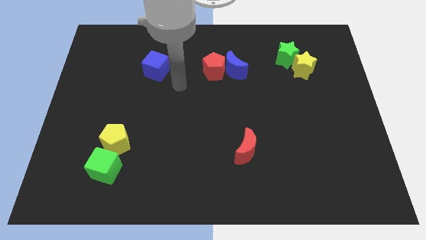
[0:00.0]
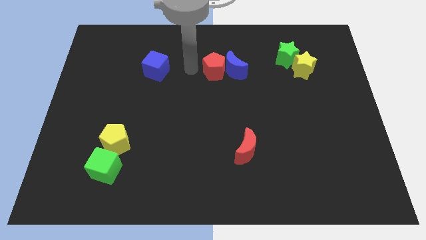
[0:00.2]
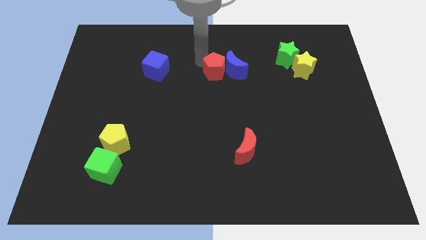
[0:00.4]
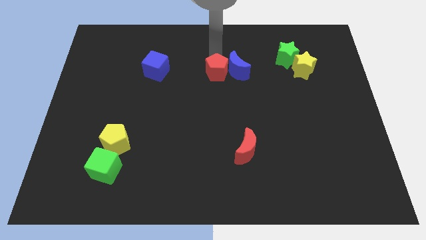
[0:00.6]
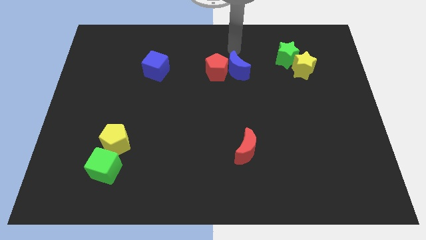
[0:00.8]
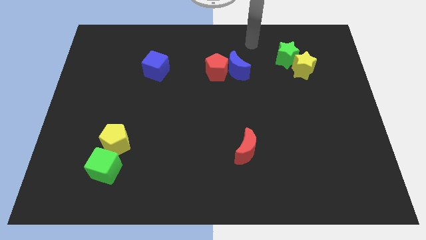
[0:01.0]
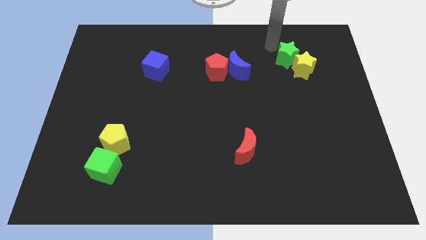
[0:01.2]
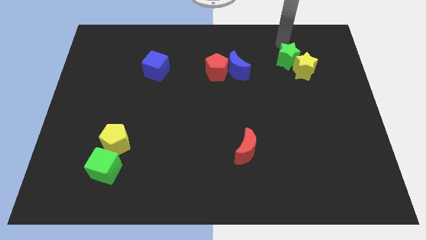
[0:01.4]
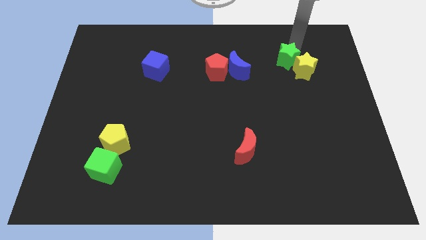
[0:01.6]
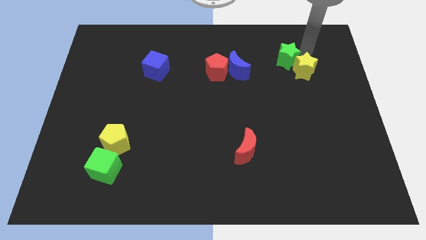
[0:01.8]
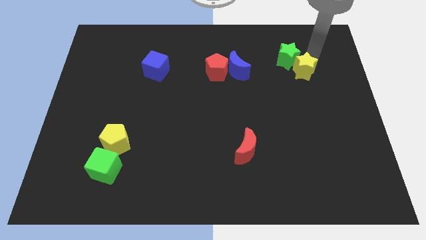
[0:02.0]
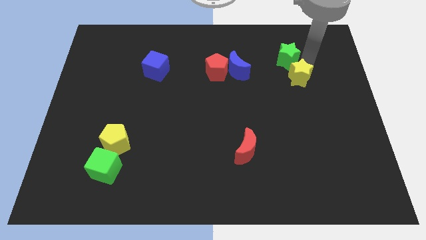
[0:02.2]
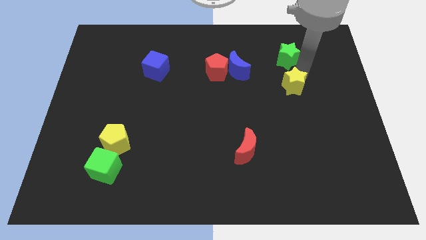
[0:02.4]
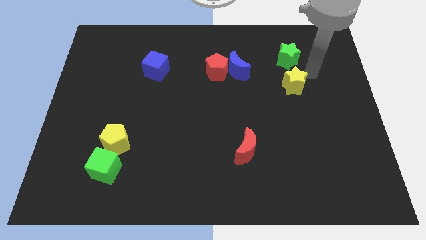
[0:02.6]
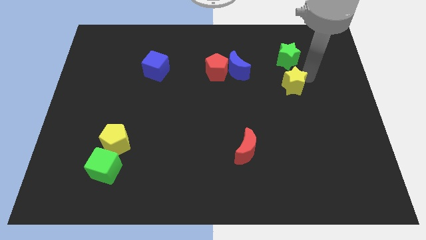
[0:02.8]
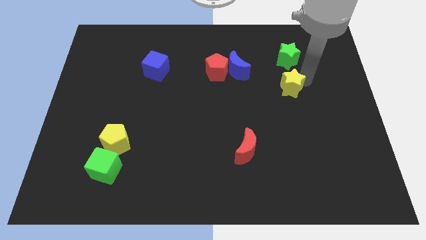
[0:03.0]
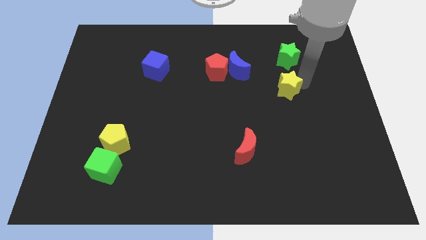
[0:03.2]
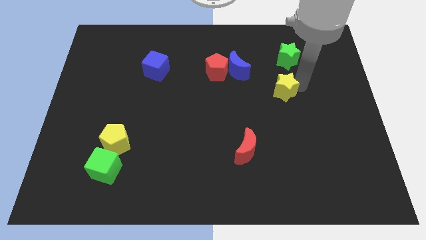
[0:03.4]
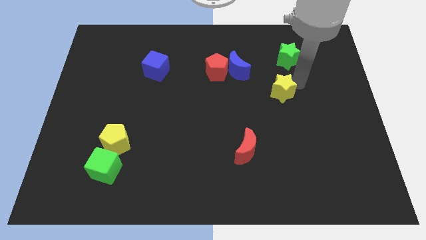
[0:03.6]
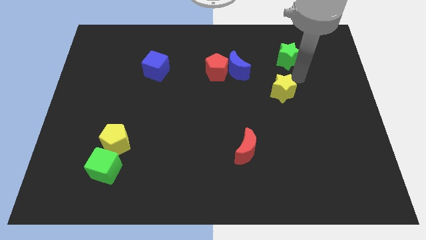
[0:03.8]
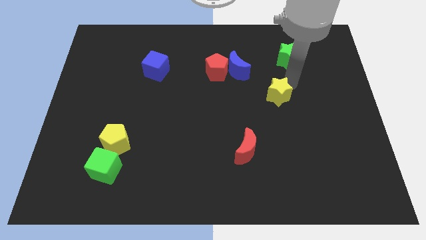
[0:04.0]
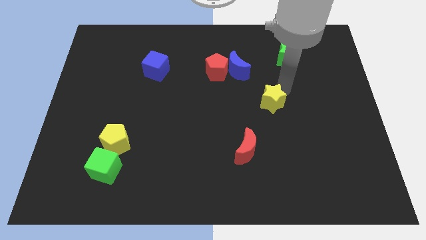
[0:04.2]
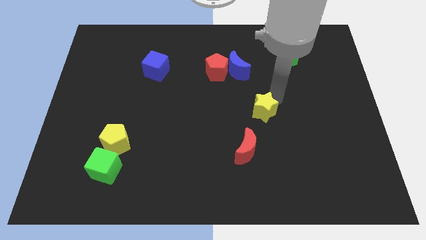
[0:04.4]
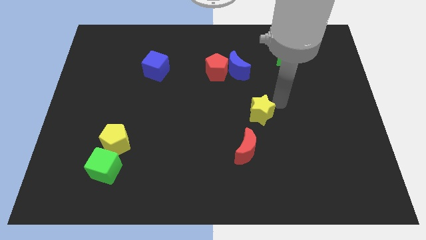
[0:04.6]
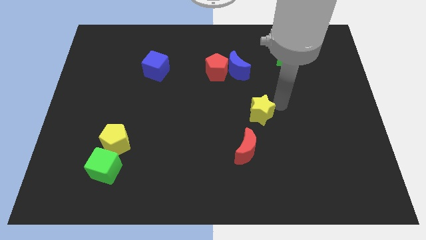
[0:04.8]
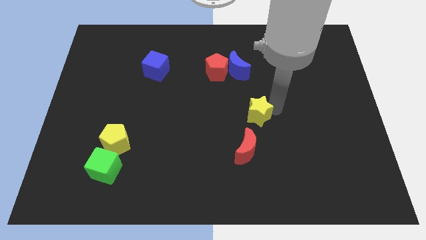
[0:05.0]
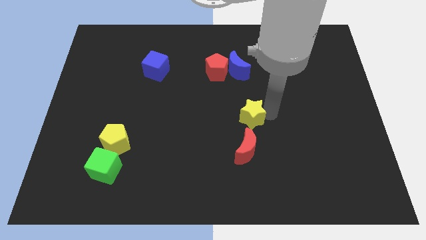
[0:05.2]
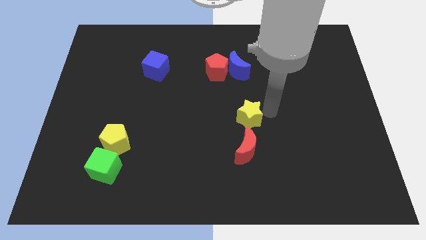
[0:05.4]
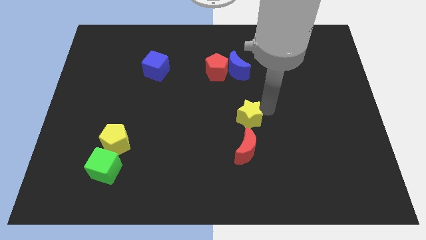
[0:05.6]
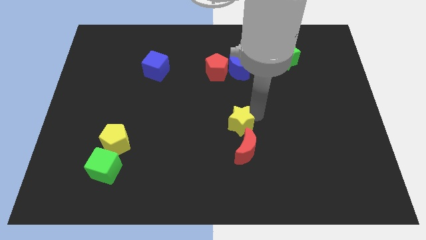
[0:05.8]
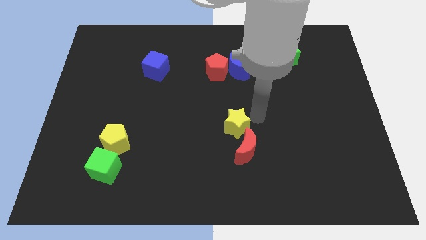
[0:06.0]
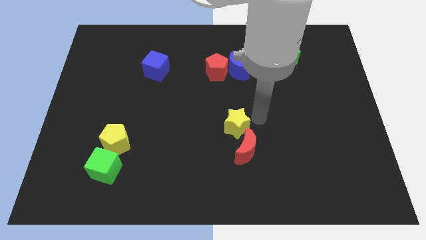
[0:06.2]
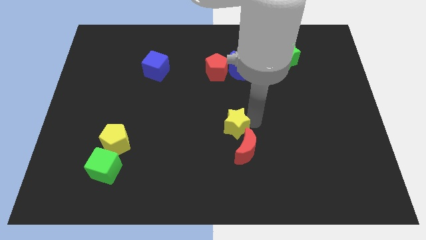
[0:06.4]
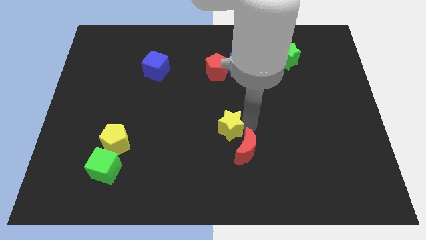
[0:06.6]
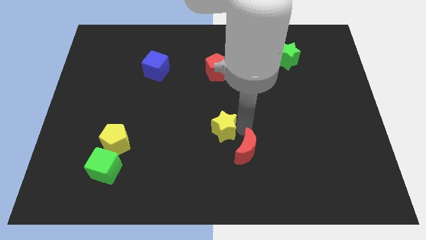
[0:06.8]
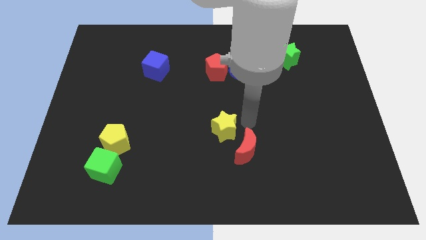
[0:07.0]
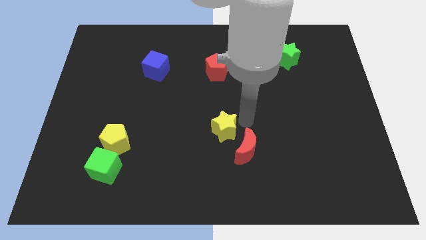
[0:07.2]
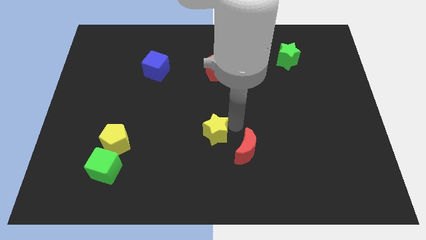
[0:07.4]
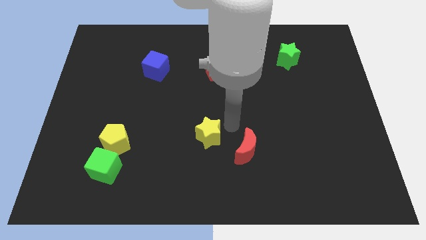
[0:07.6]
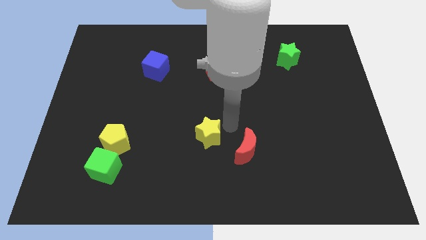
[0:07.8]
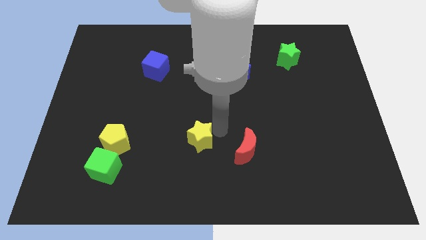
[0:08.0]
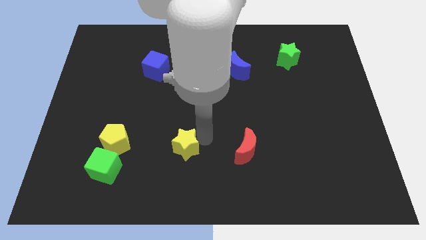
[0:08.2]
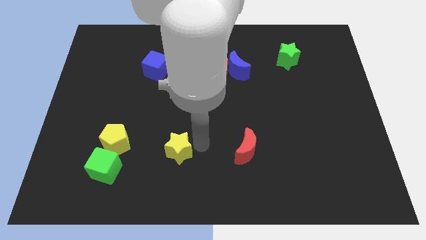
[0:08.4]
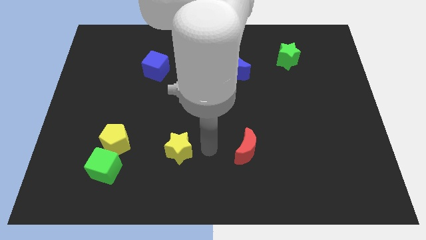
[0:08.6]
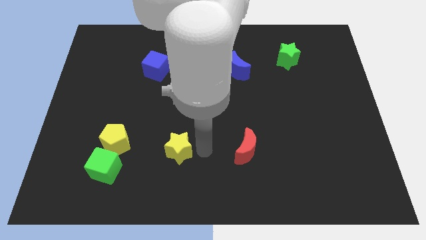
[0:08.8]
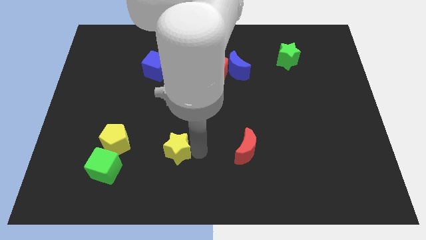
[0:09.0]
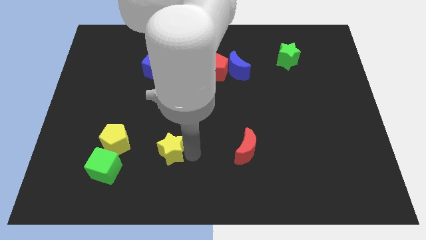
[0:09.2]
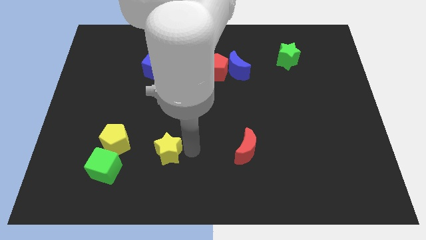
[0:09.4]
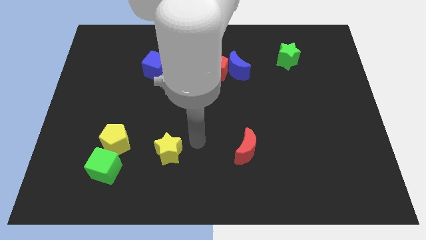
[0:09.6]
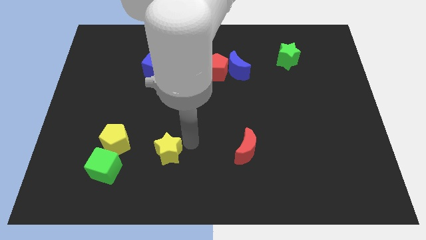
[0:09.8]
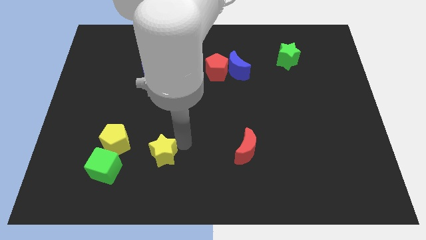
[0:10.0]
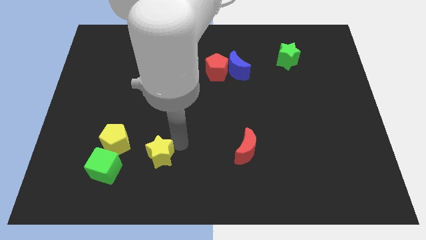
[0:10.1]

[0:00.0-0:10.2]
push the yellow star to the bottom right side of the yellow pentagon

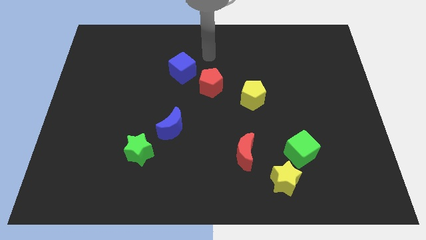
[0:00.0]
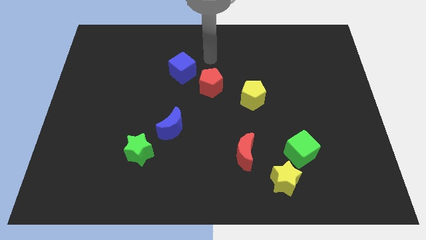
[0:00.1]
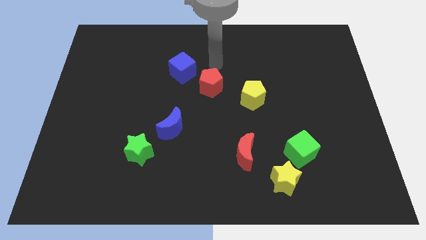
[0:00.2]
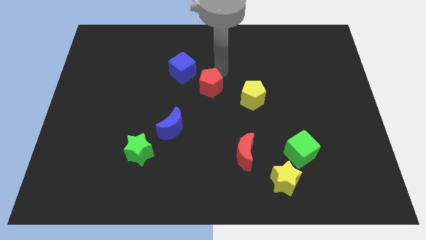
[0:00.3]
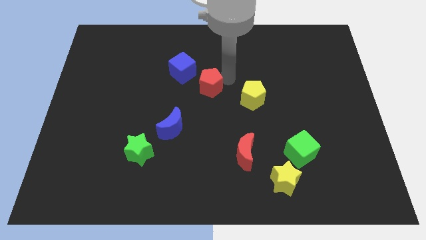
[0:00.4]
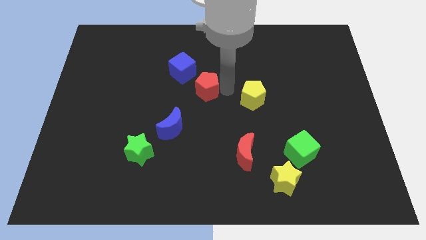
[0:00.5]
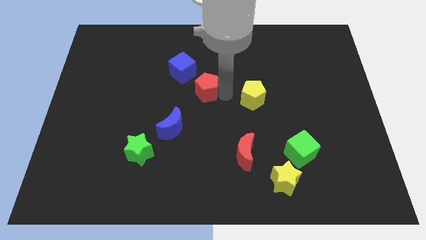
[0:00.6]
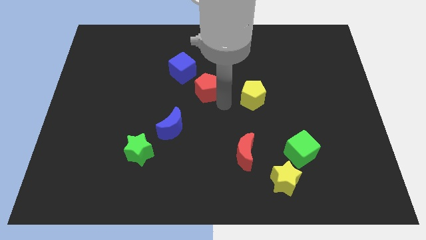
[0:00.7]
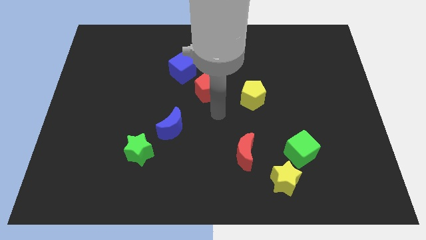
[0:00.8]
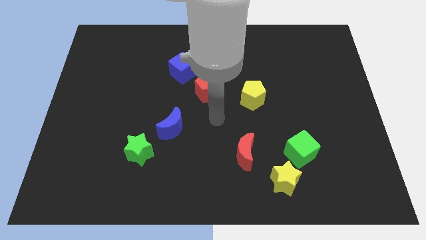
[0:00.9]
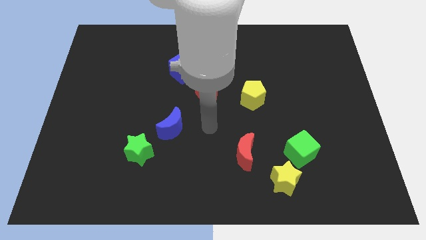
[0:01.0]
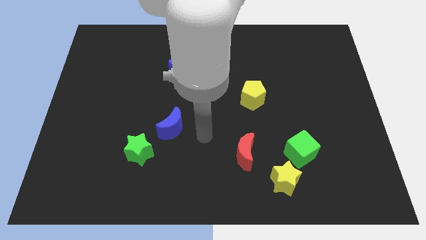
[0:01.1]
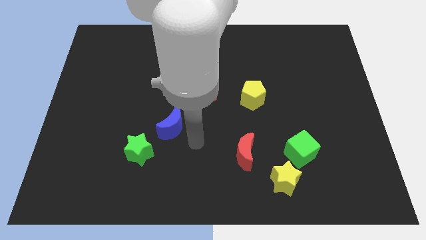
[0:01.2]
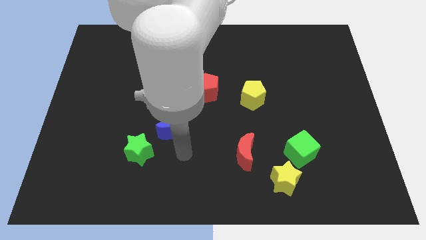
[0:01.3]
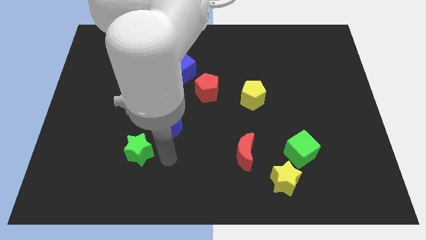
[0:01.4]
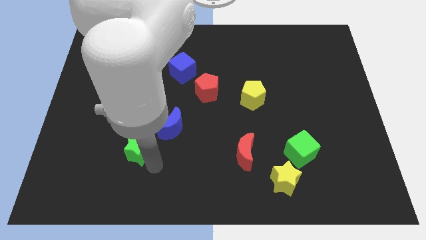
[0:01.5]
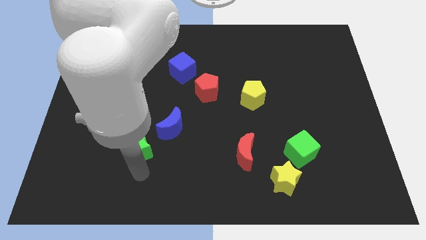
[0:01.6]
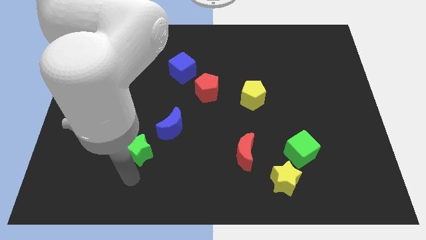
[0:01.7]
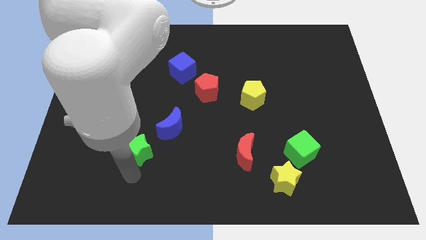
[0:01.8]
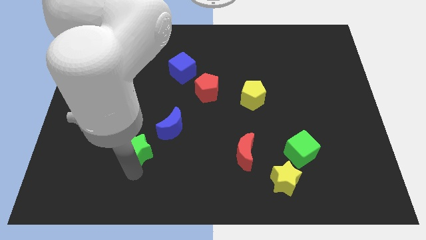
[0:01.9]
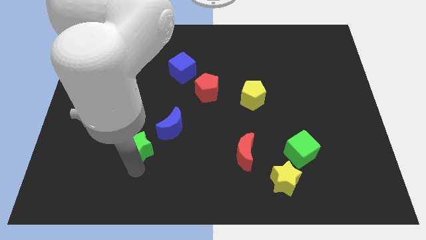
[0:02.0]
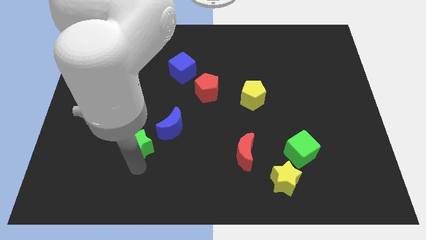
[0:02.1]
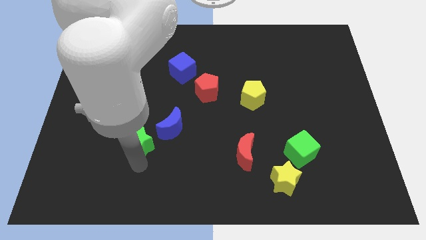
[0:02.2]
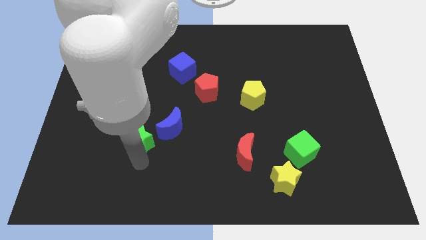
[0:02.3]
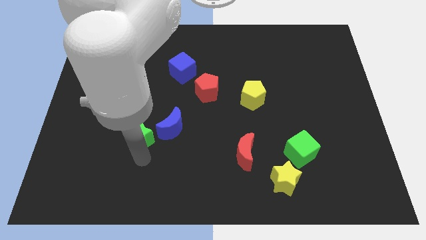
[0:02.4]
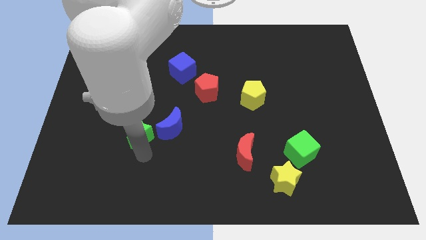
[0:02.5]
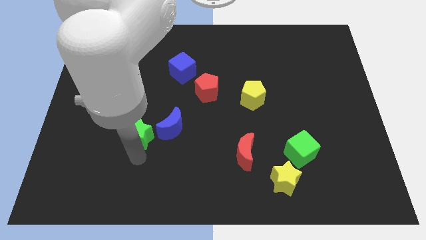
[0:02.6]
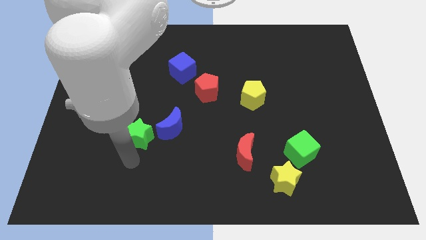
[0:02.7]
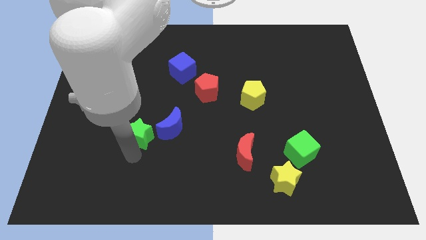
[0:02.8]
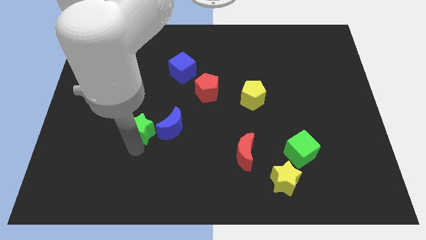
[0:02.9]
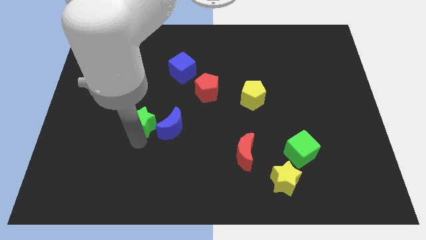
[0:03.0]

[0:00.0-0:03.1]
put the green star to the top left of the blue moon
